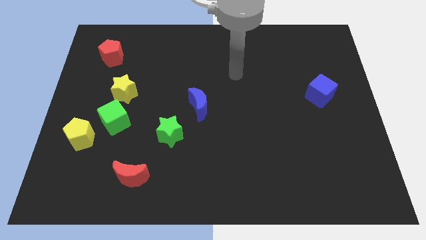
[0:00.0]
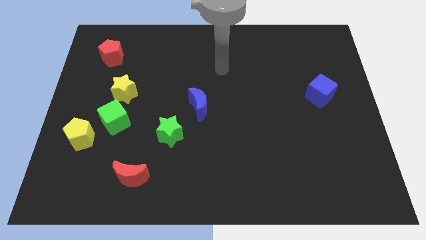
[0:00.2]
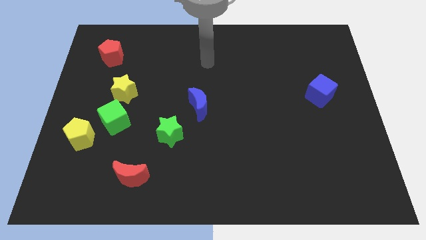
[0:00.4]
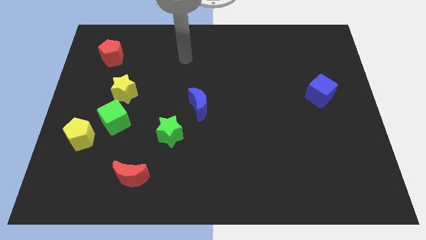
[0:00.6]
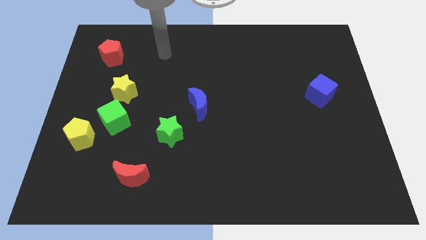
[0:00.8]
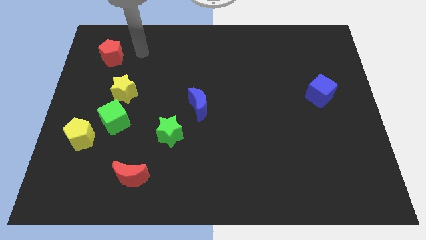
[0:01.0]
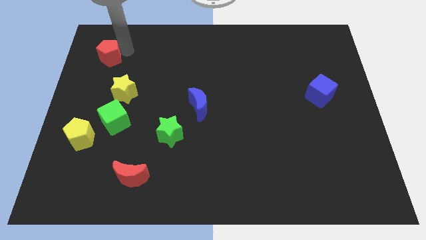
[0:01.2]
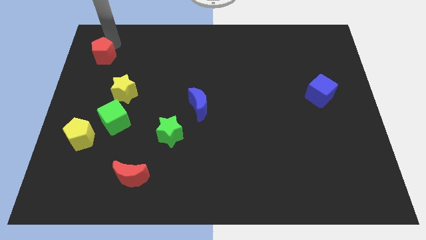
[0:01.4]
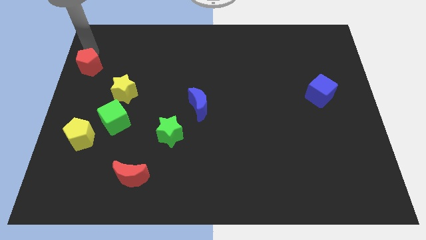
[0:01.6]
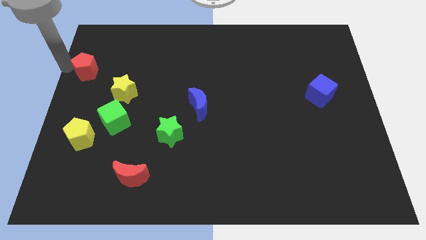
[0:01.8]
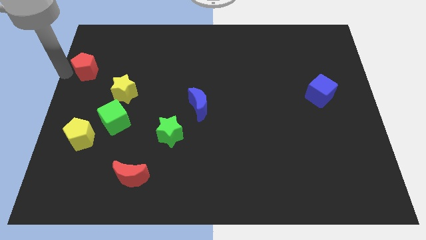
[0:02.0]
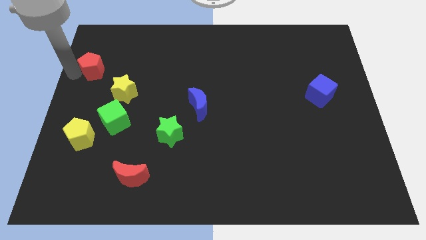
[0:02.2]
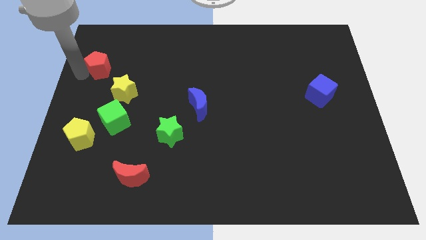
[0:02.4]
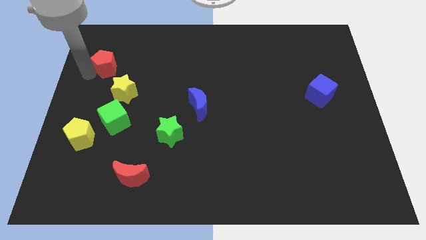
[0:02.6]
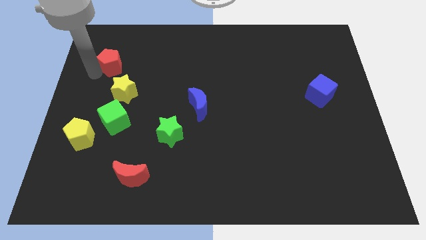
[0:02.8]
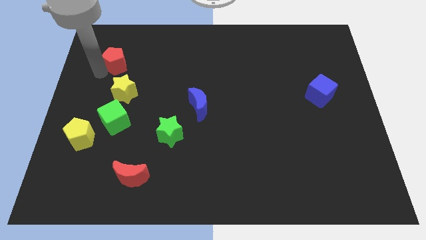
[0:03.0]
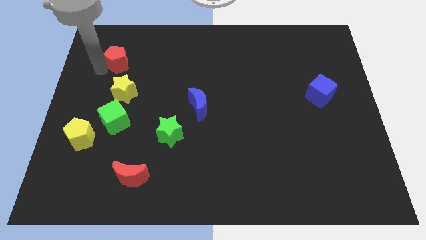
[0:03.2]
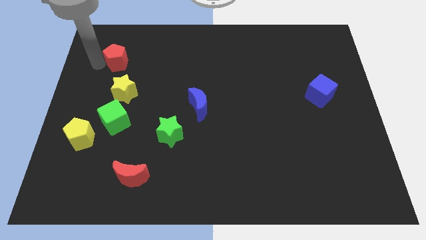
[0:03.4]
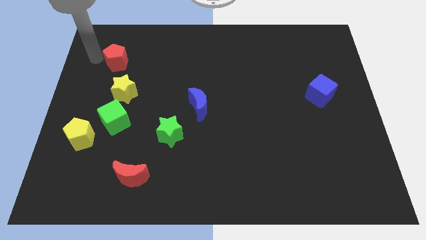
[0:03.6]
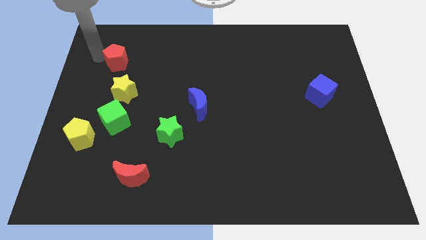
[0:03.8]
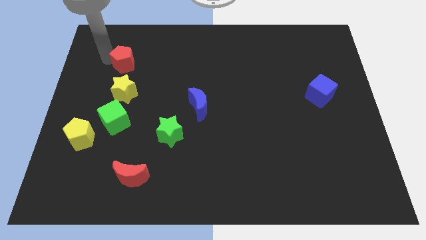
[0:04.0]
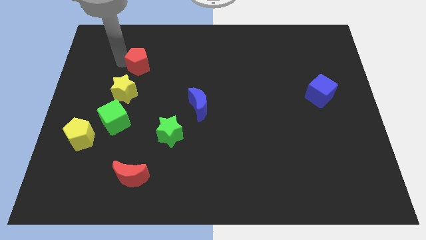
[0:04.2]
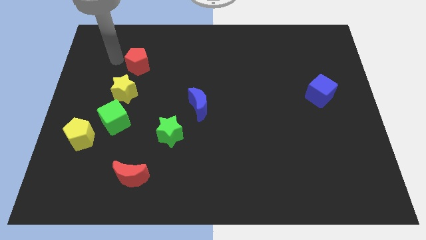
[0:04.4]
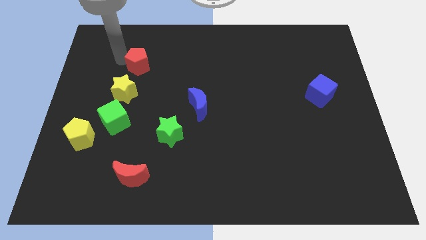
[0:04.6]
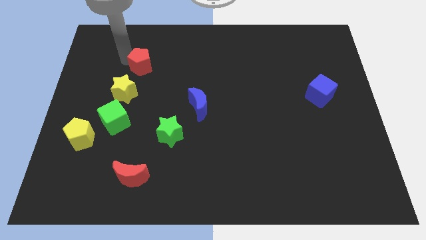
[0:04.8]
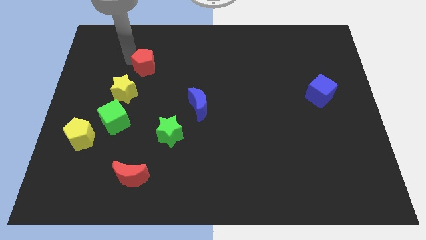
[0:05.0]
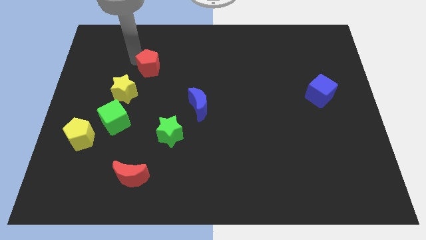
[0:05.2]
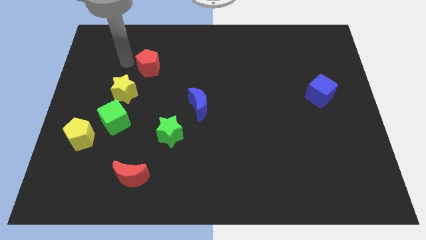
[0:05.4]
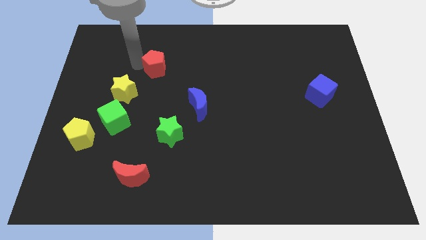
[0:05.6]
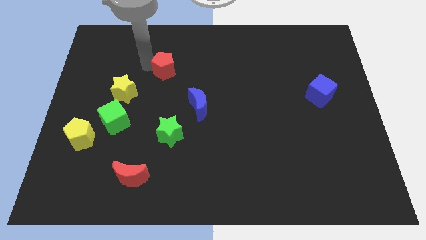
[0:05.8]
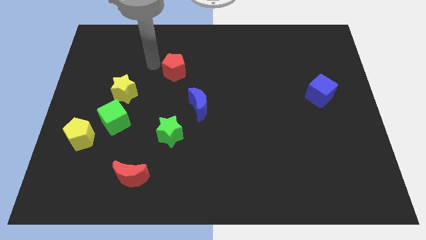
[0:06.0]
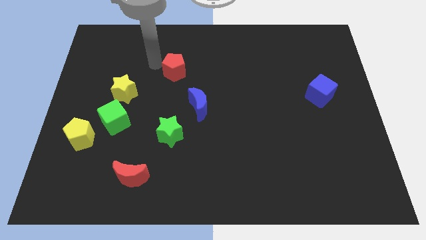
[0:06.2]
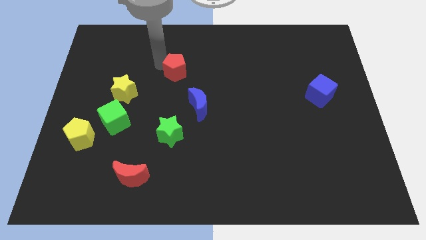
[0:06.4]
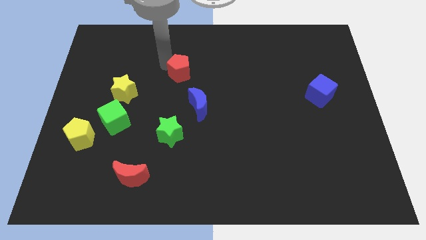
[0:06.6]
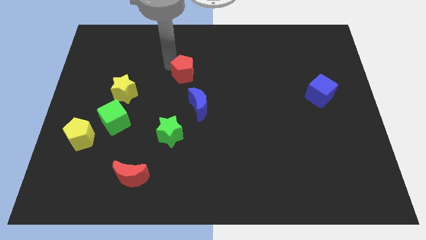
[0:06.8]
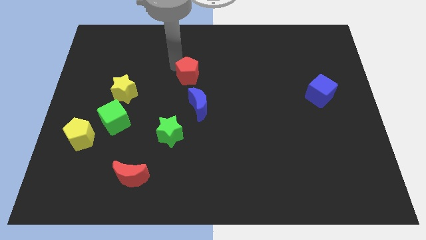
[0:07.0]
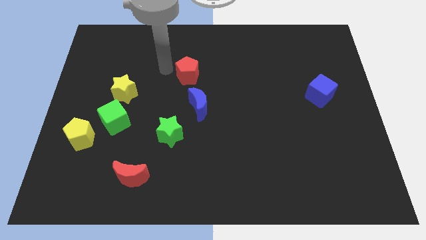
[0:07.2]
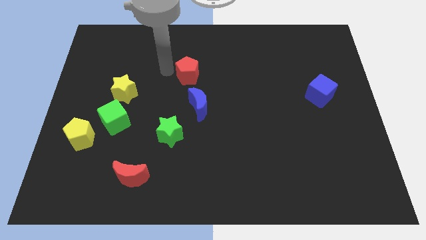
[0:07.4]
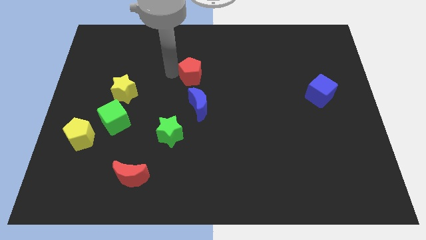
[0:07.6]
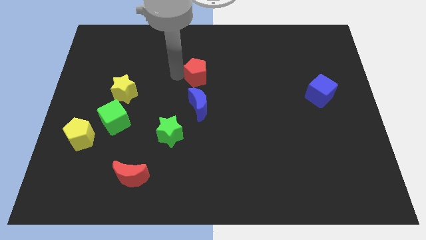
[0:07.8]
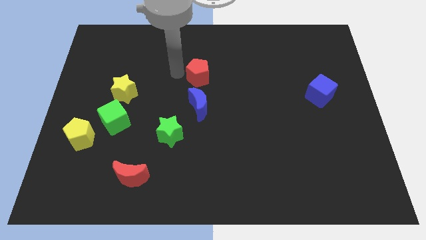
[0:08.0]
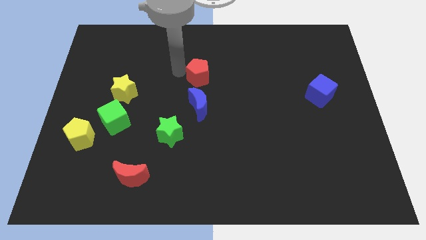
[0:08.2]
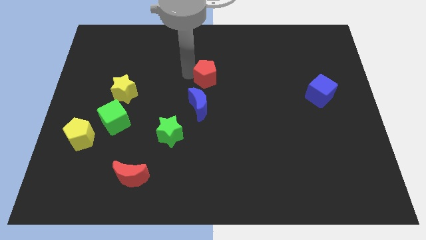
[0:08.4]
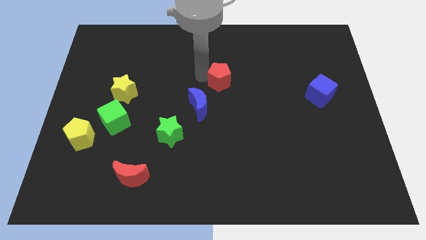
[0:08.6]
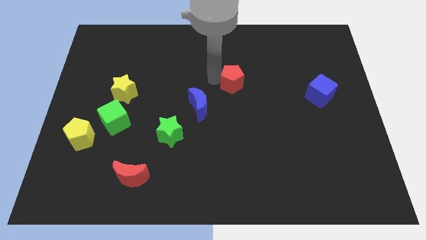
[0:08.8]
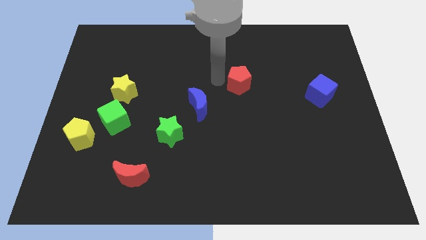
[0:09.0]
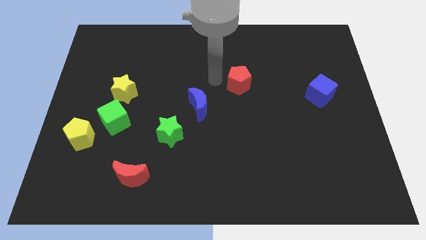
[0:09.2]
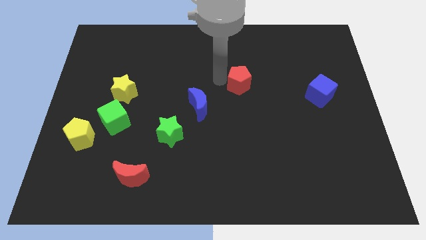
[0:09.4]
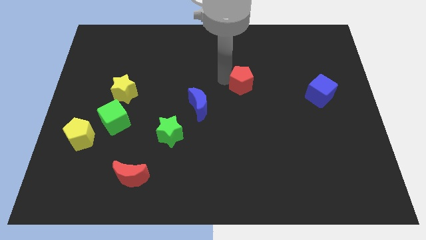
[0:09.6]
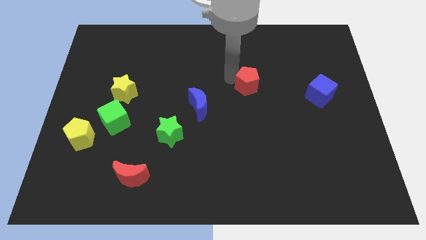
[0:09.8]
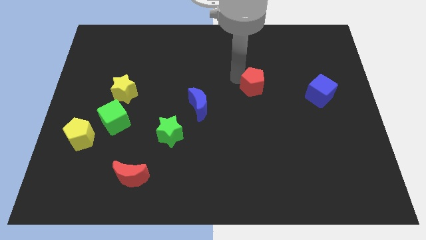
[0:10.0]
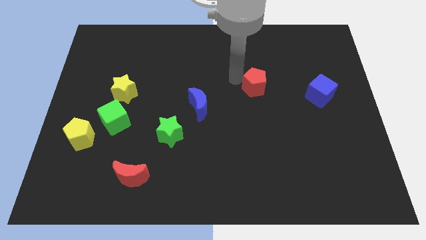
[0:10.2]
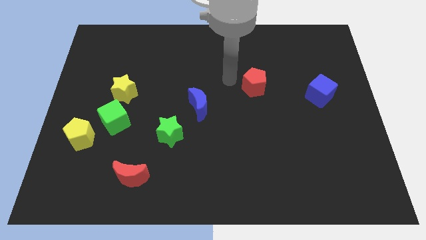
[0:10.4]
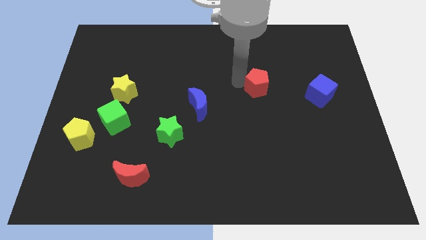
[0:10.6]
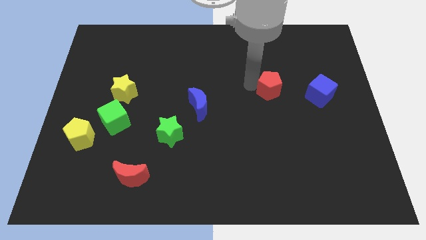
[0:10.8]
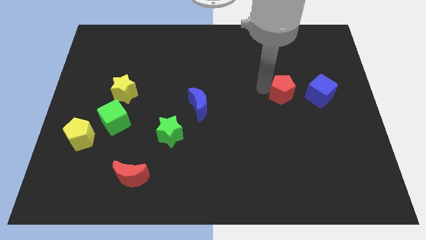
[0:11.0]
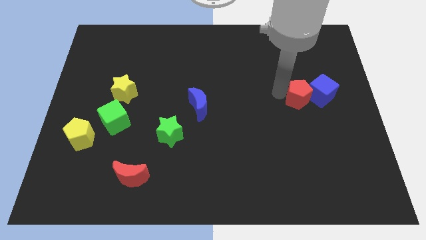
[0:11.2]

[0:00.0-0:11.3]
put the red pentagon next to the blue cube

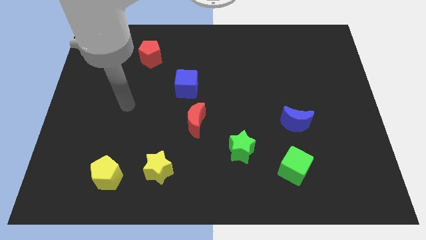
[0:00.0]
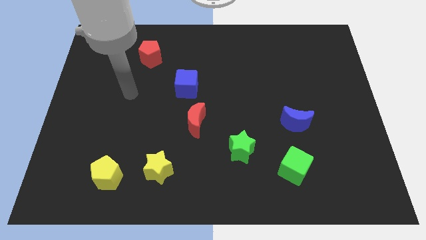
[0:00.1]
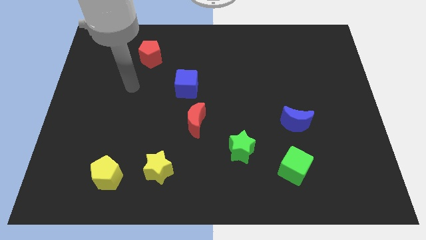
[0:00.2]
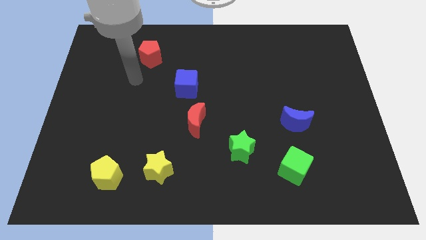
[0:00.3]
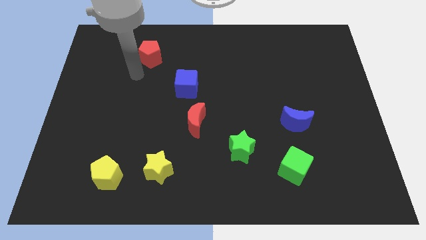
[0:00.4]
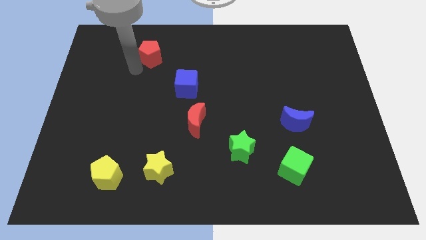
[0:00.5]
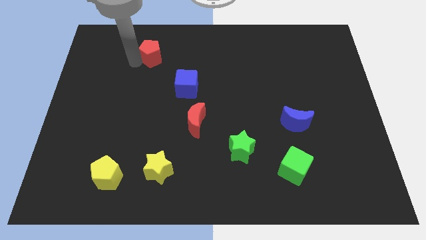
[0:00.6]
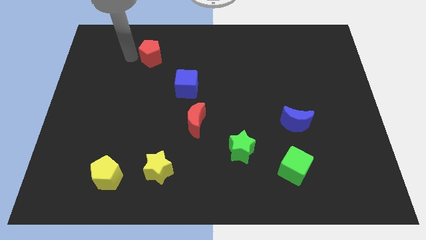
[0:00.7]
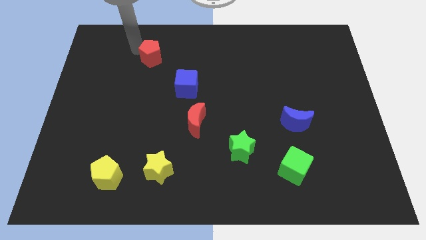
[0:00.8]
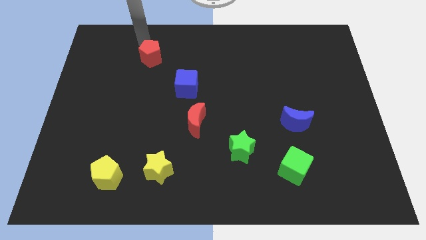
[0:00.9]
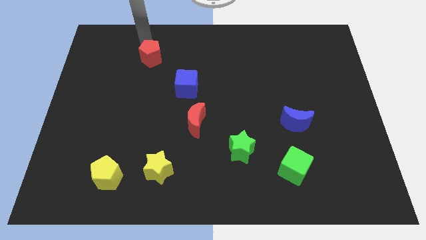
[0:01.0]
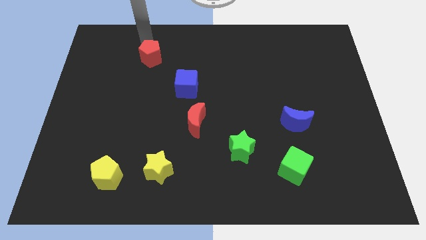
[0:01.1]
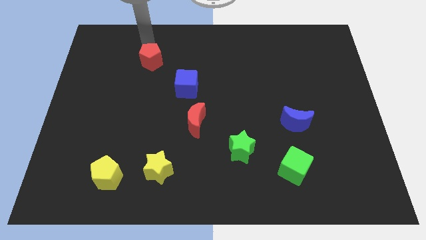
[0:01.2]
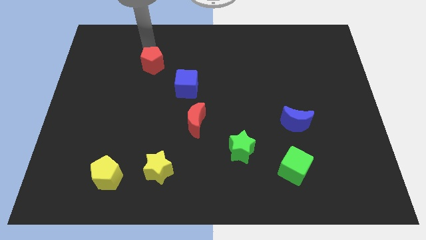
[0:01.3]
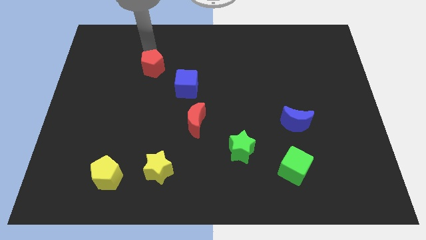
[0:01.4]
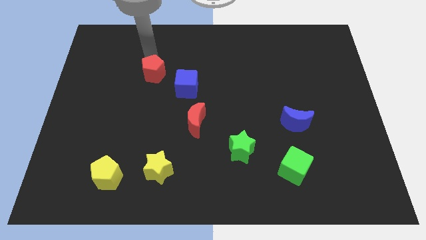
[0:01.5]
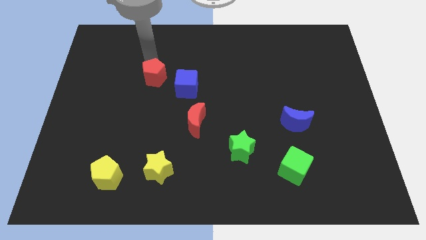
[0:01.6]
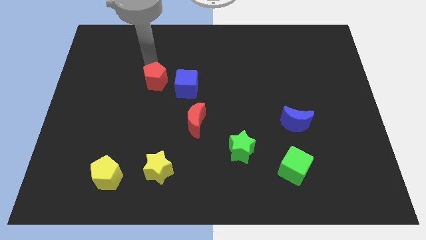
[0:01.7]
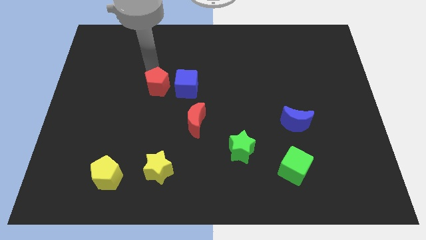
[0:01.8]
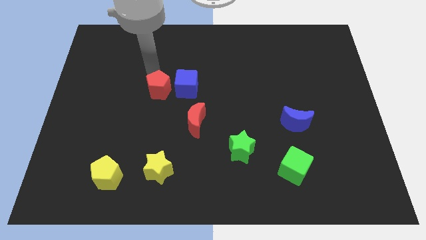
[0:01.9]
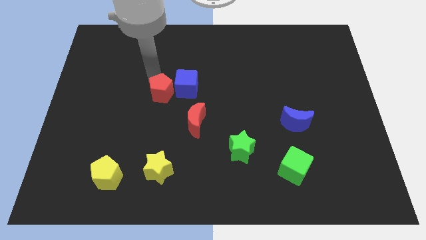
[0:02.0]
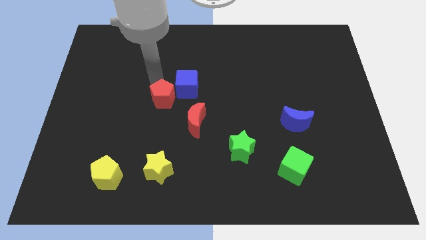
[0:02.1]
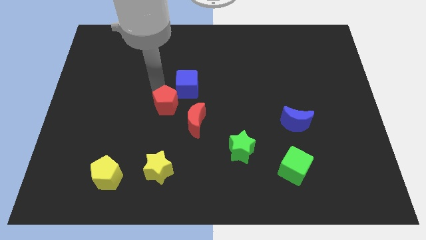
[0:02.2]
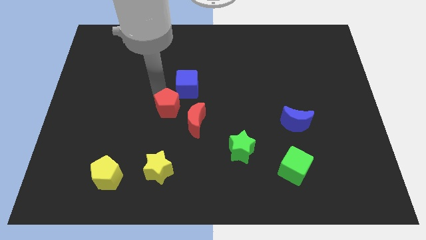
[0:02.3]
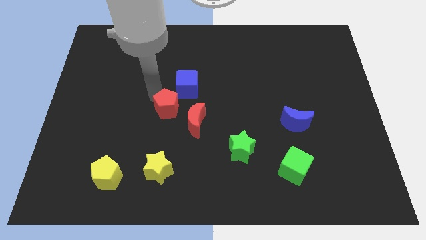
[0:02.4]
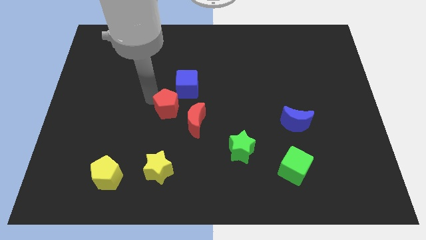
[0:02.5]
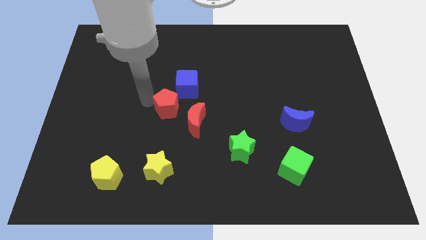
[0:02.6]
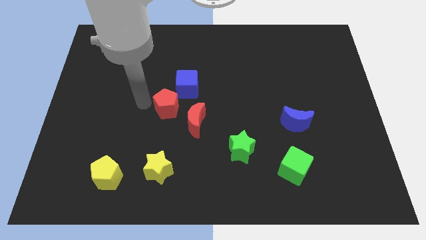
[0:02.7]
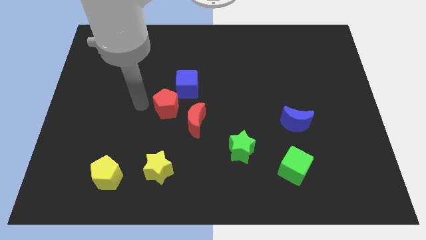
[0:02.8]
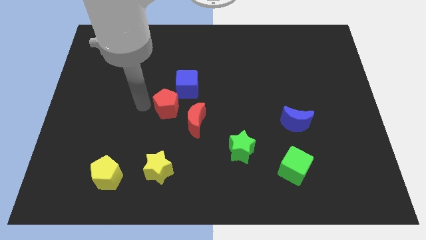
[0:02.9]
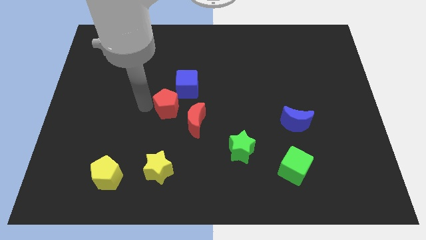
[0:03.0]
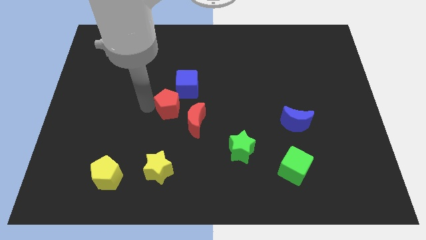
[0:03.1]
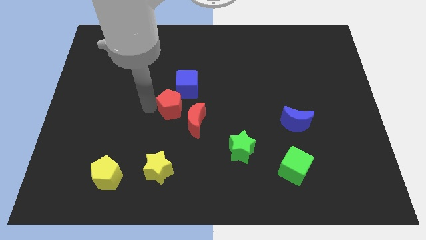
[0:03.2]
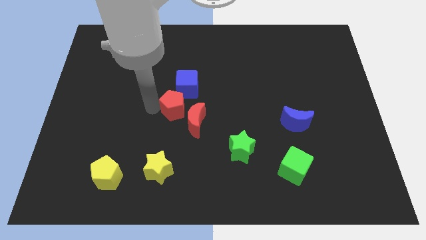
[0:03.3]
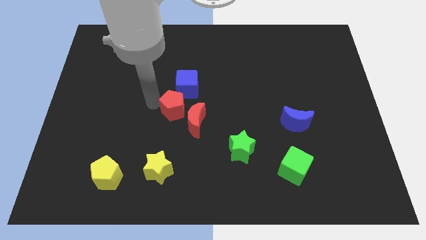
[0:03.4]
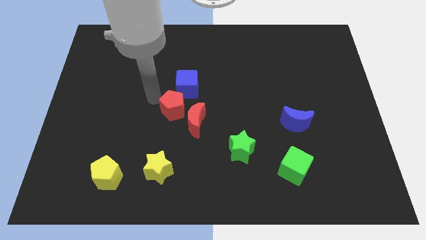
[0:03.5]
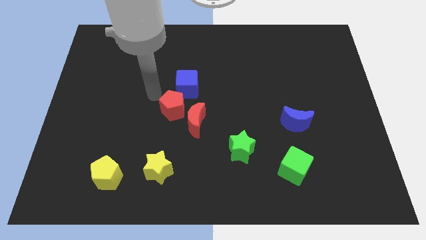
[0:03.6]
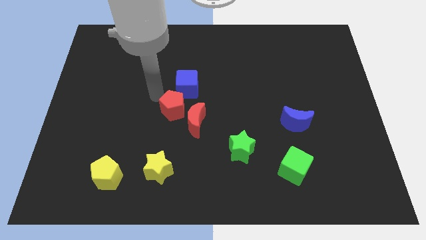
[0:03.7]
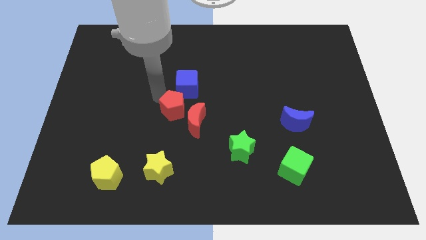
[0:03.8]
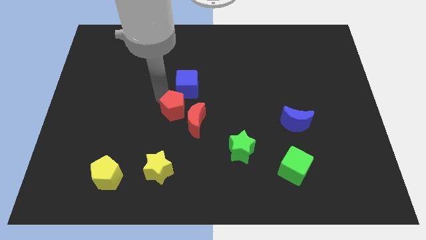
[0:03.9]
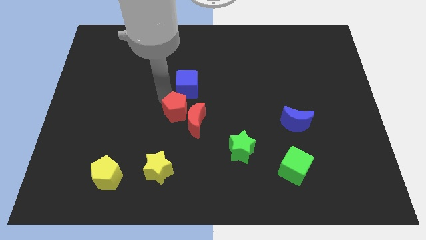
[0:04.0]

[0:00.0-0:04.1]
put the red pentagon next to the red moon
